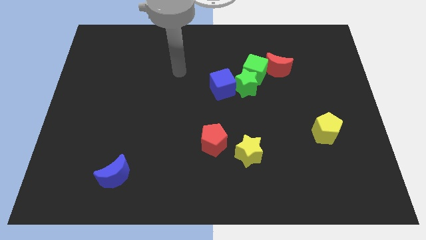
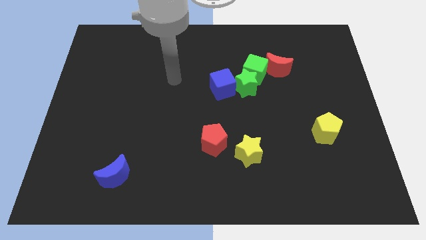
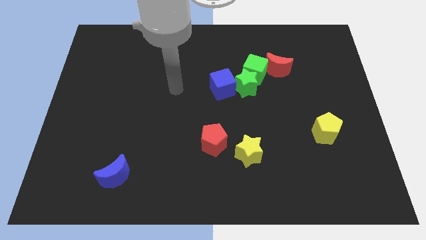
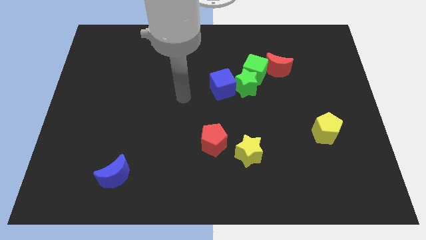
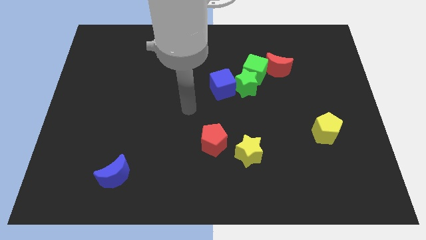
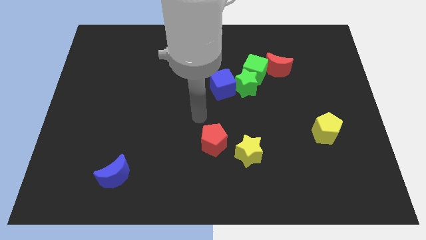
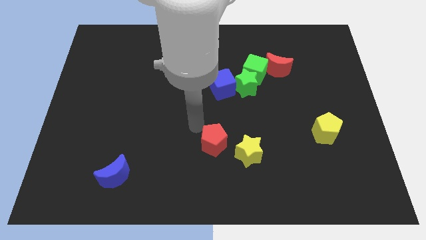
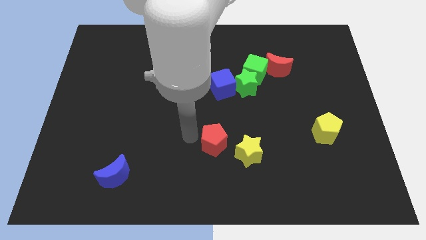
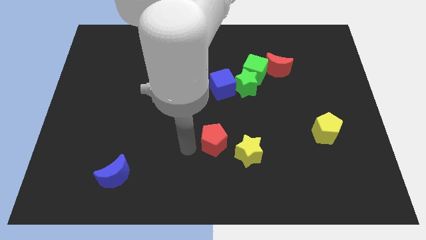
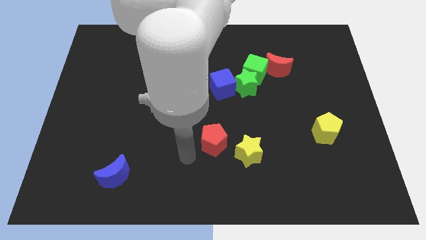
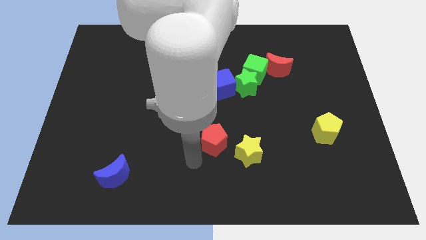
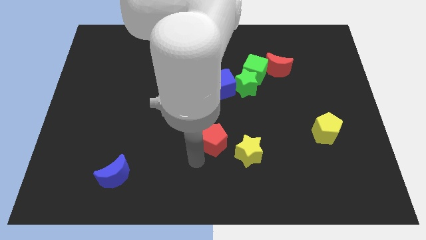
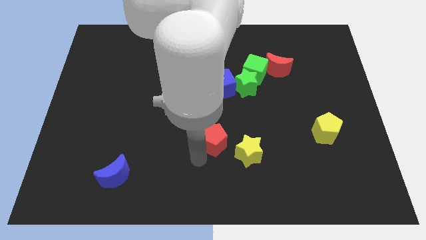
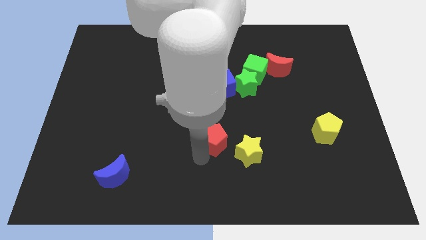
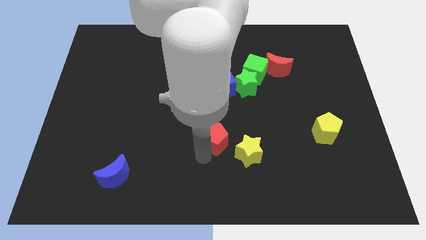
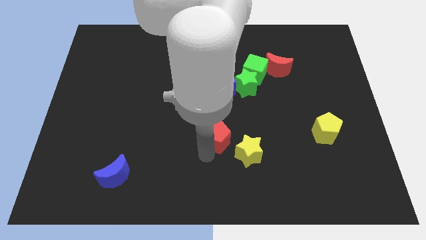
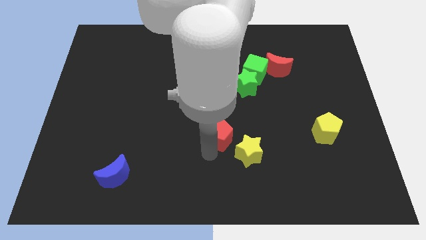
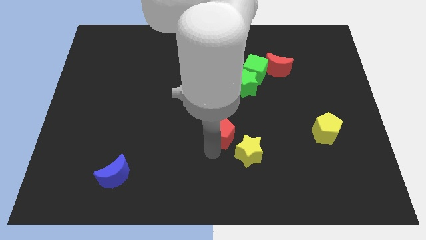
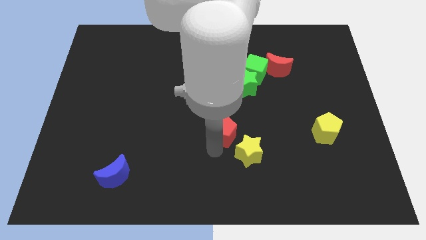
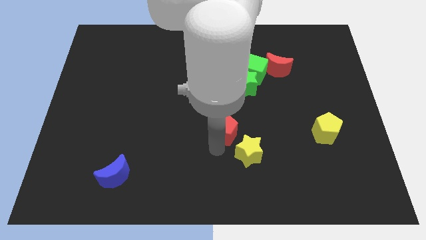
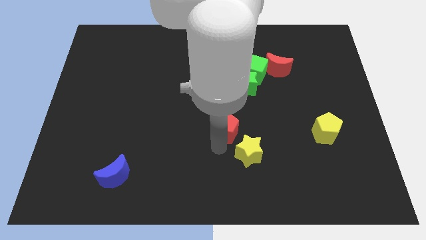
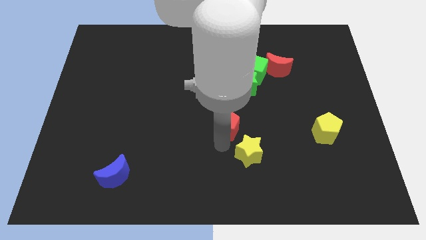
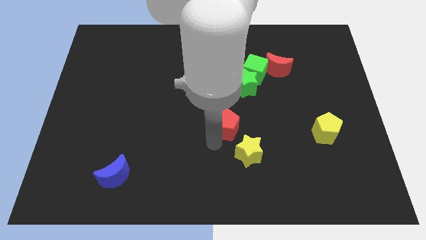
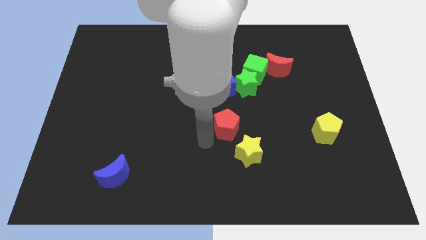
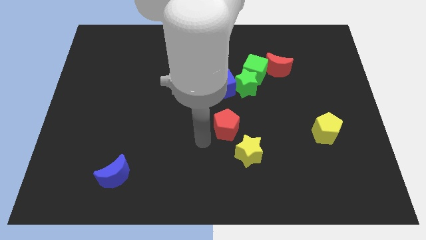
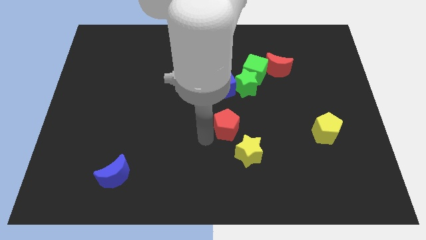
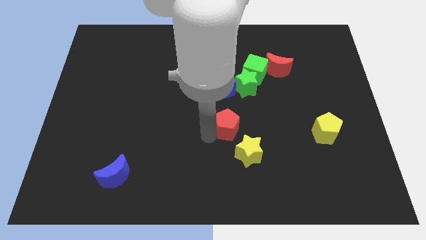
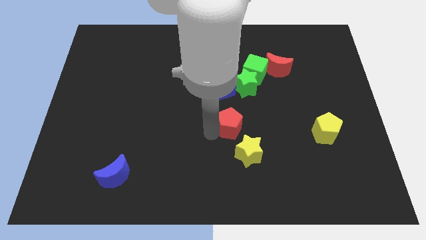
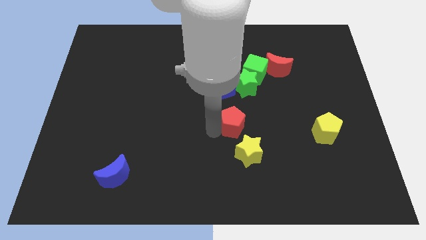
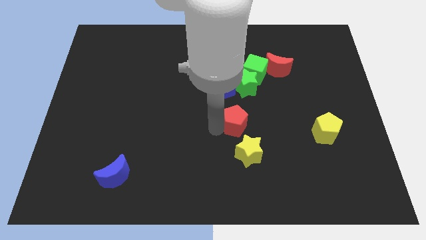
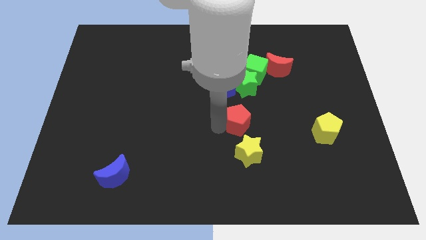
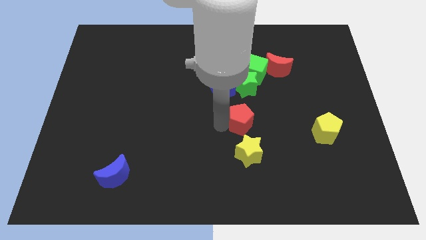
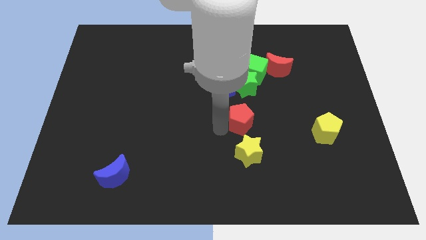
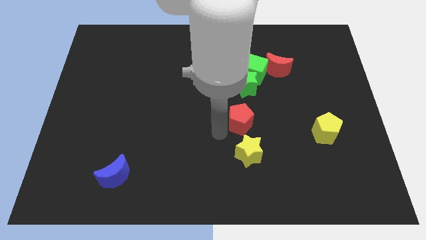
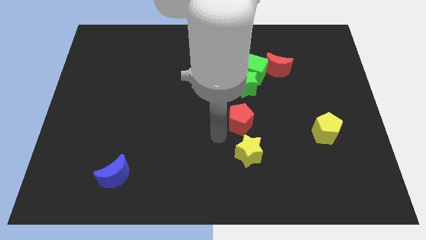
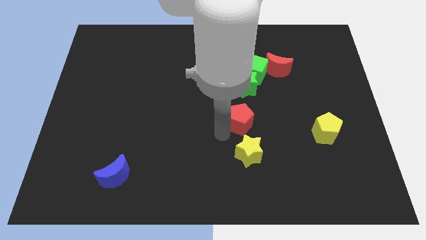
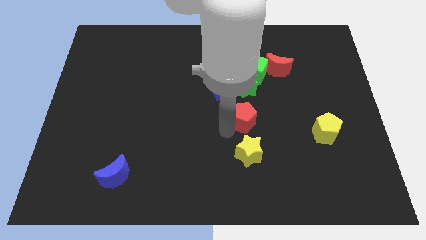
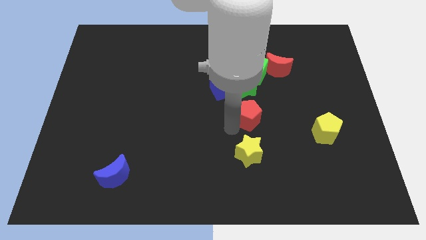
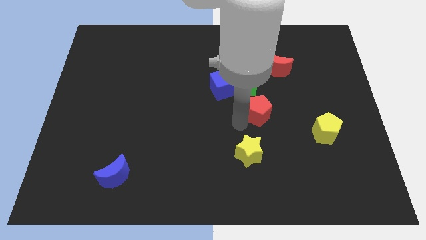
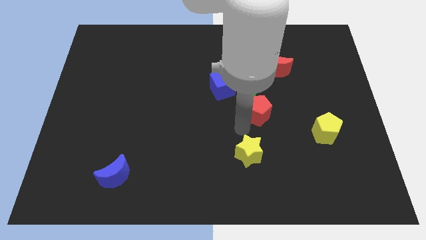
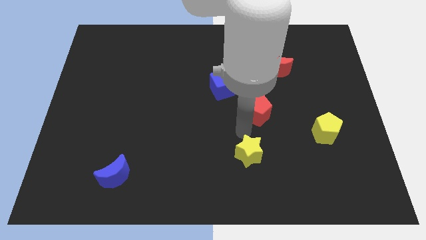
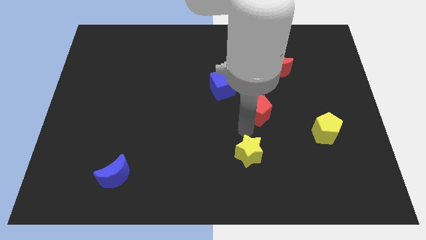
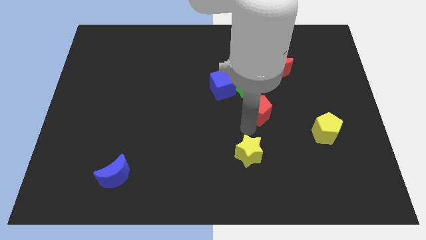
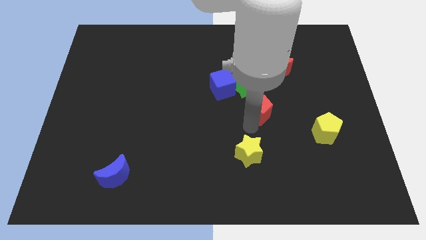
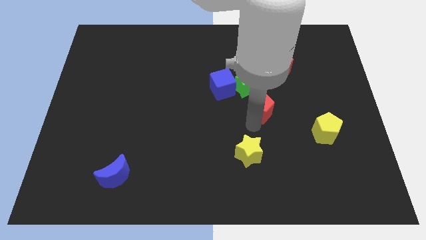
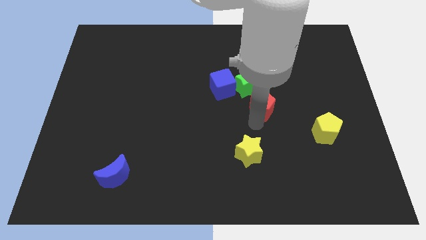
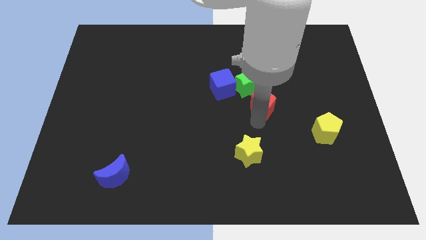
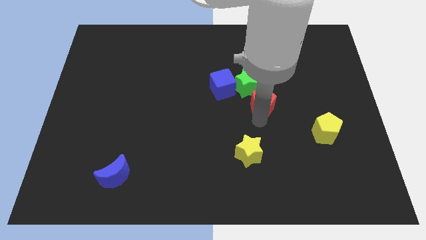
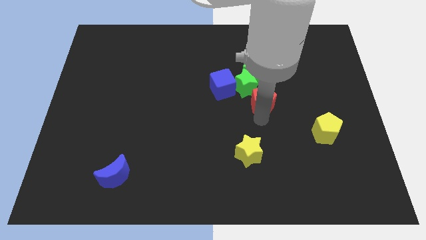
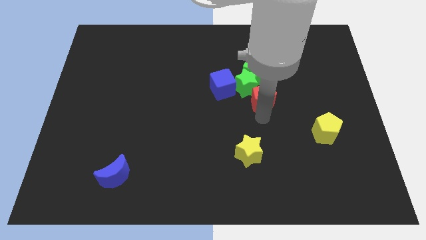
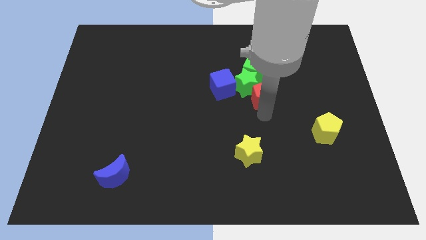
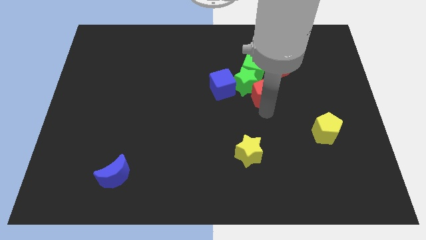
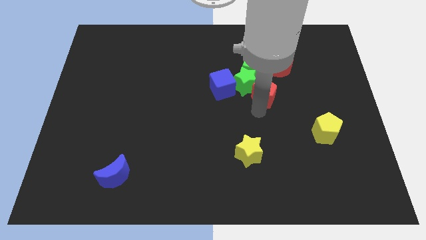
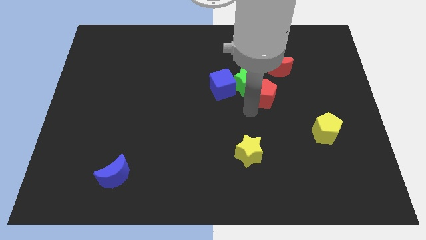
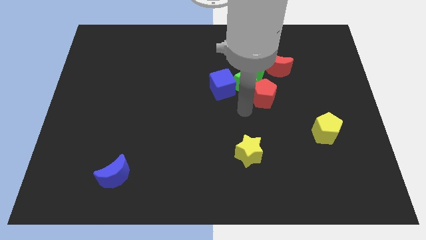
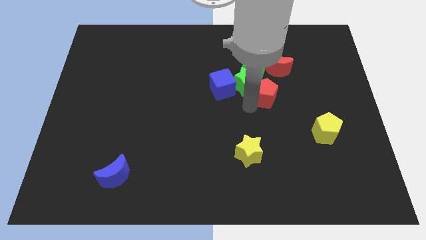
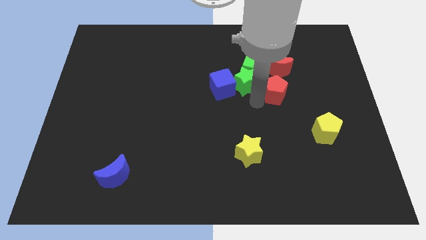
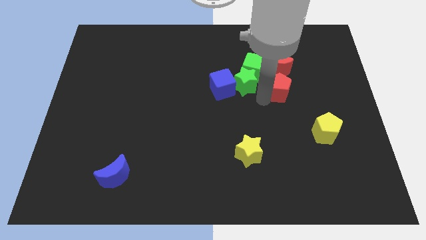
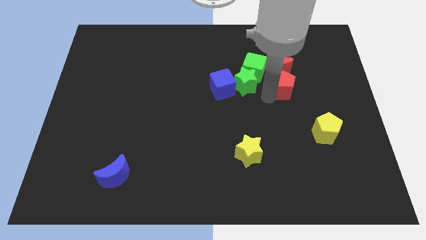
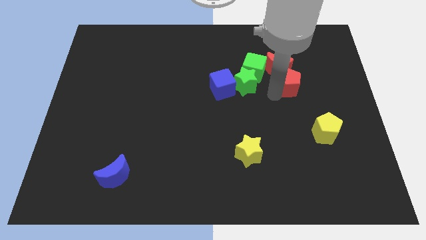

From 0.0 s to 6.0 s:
slide the red pentagon just right of the green cube

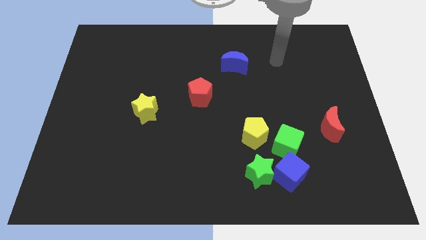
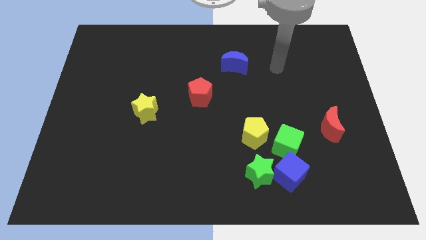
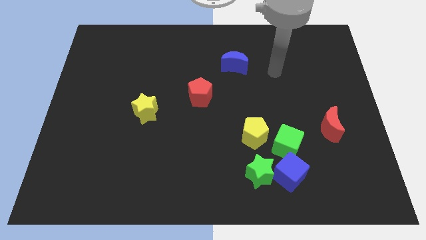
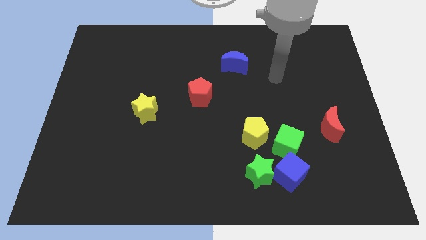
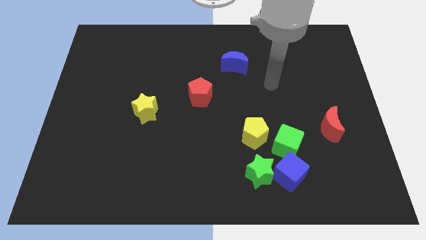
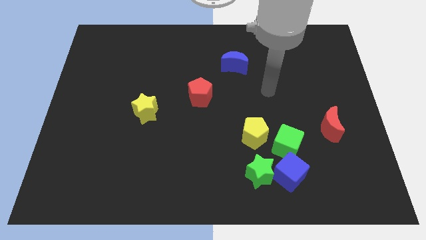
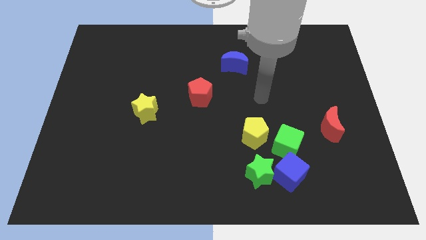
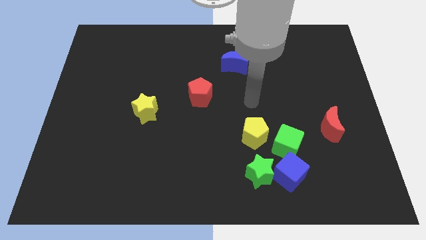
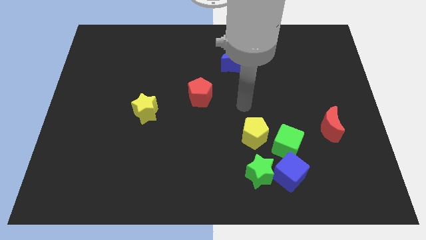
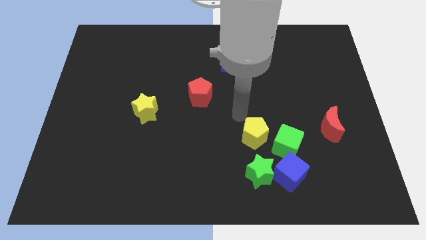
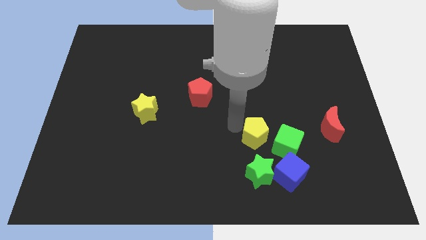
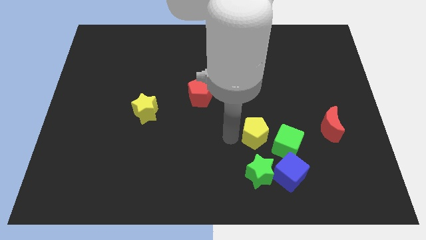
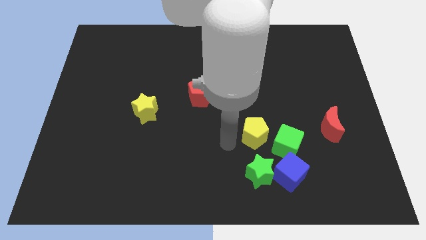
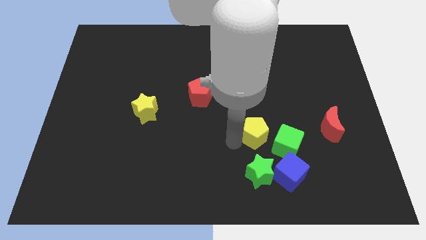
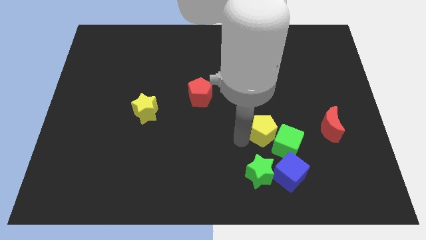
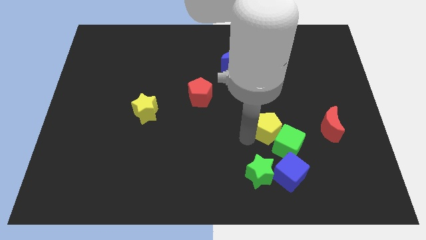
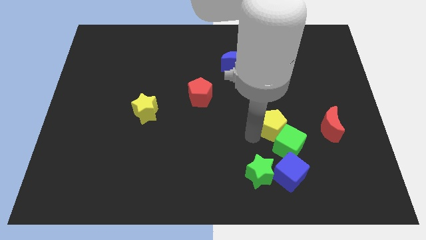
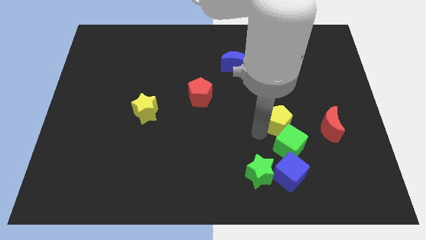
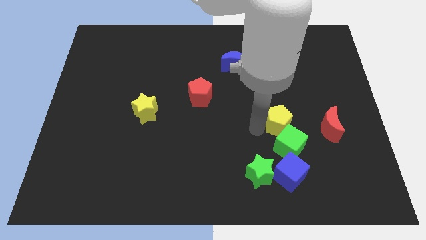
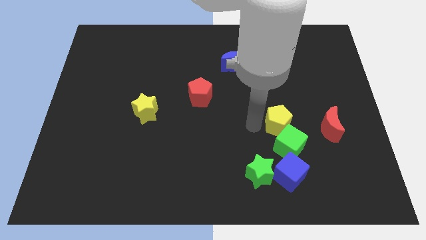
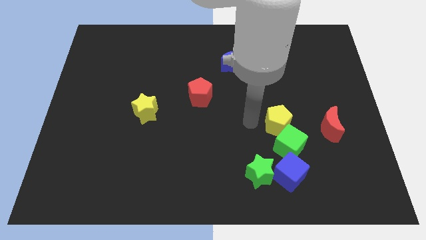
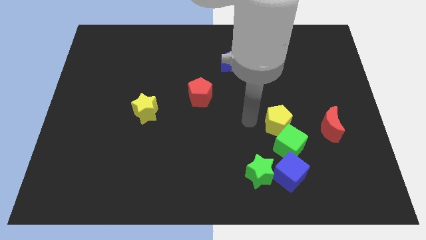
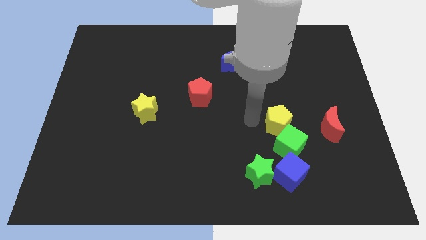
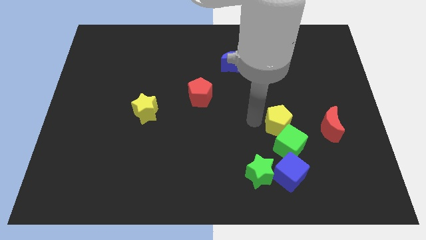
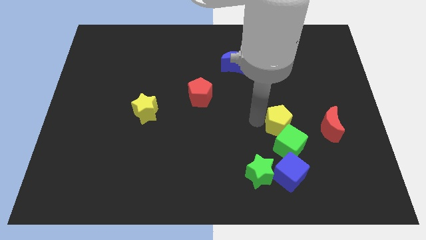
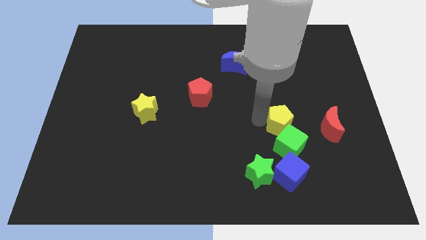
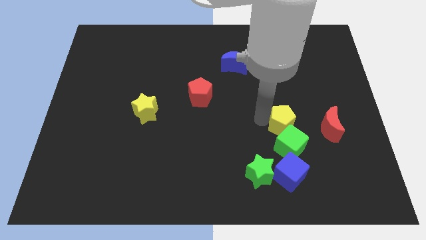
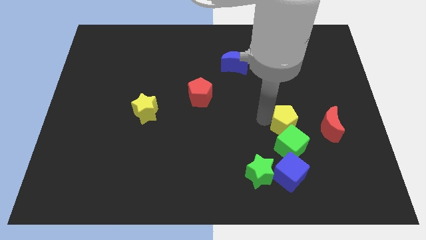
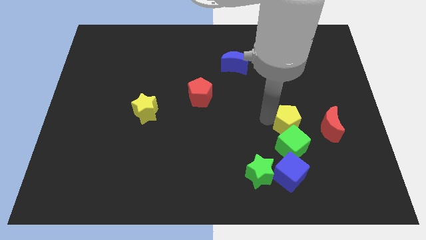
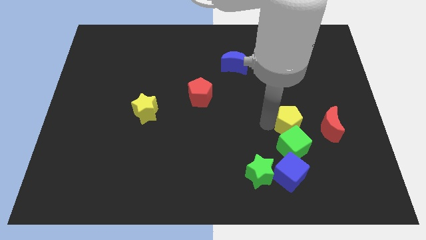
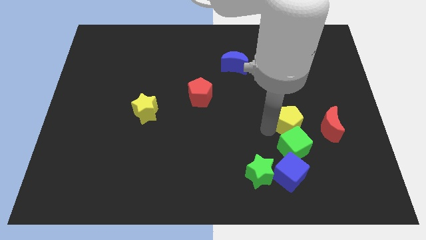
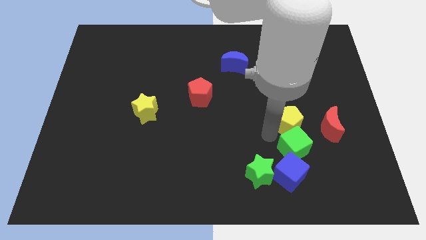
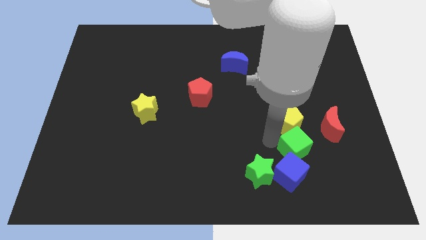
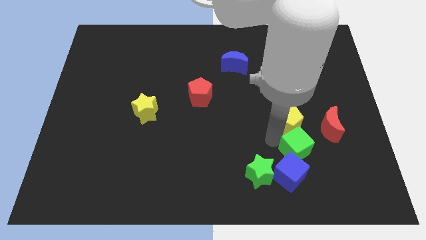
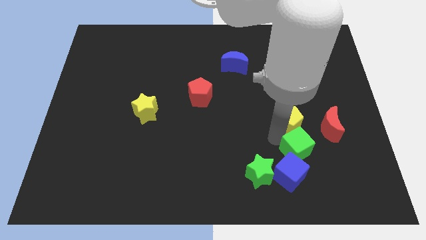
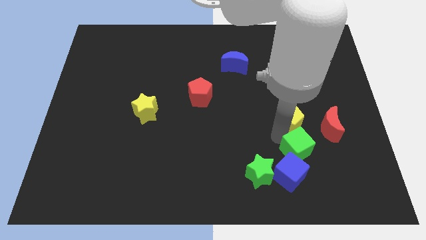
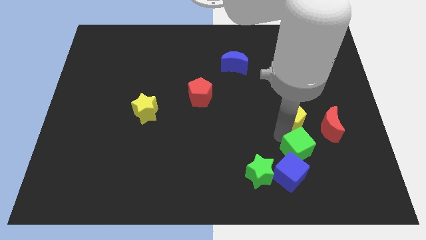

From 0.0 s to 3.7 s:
slide the yellow pentagon diagonally up and to the left of the red moon
